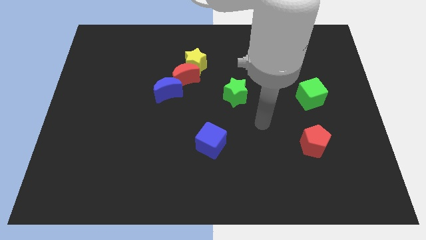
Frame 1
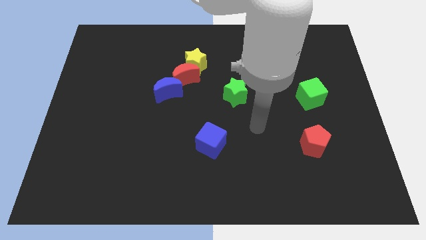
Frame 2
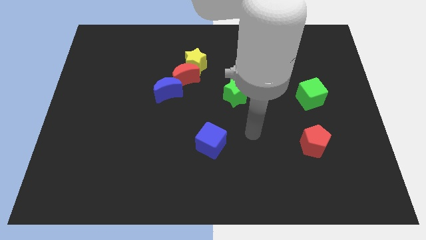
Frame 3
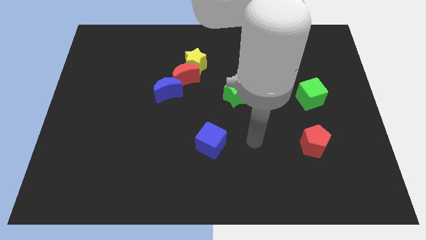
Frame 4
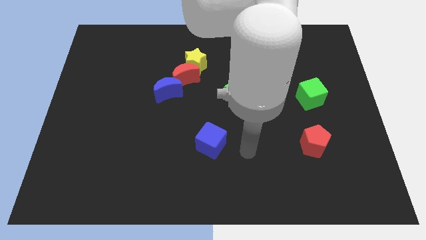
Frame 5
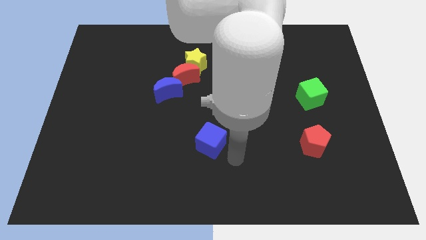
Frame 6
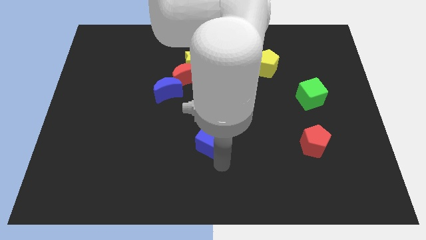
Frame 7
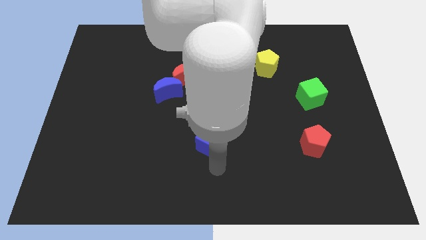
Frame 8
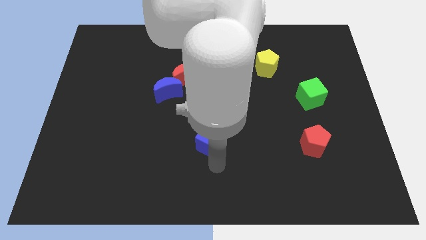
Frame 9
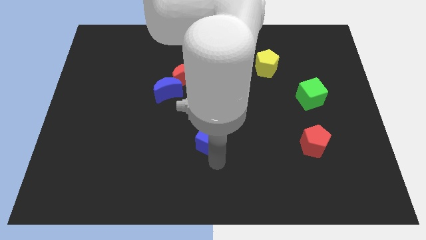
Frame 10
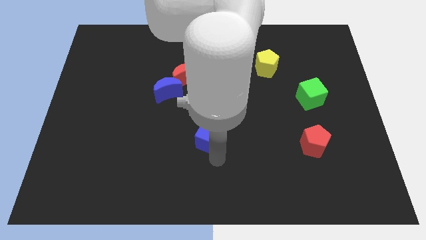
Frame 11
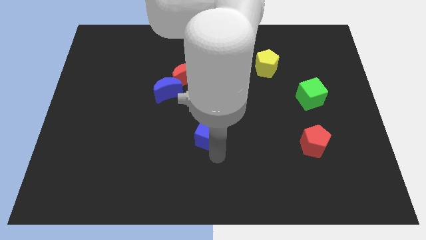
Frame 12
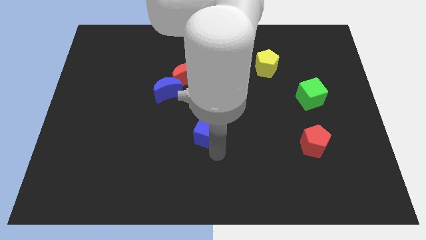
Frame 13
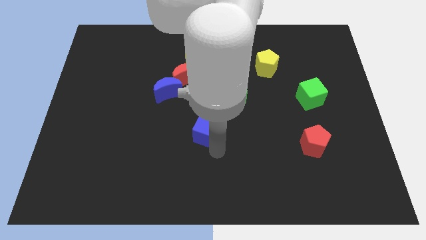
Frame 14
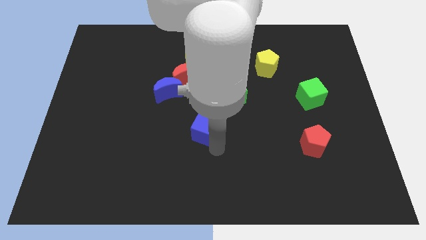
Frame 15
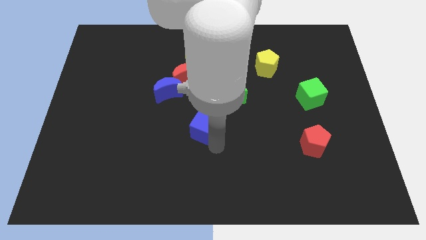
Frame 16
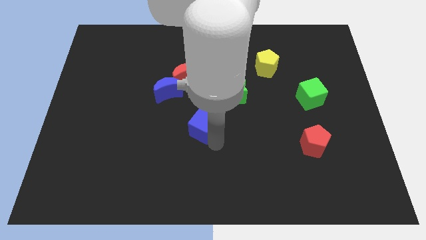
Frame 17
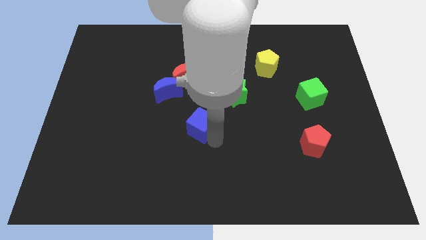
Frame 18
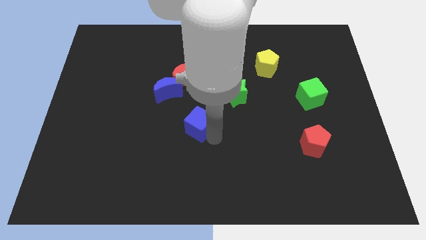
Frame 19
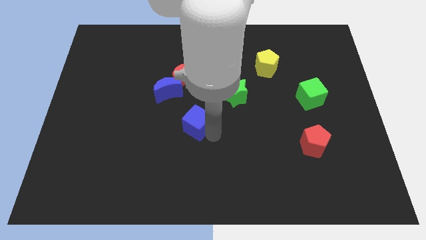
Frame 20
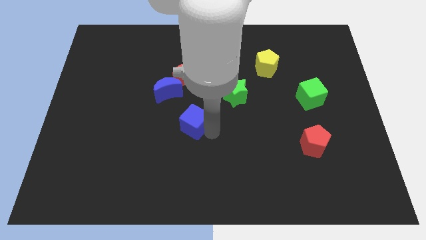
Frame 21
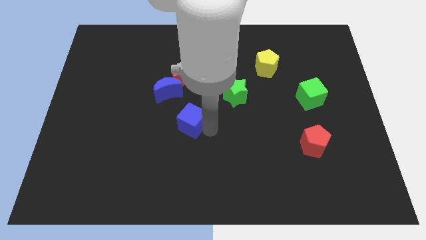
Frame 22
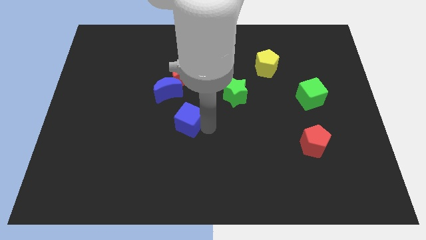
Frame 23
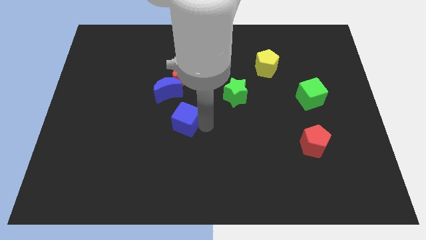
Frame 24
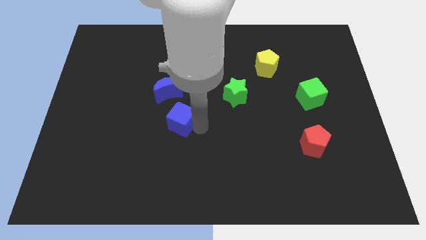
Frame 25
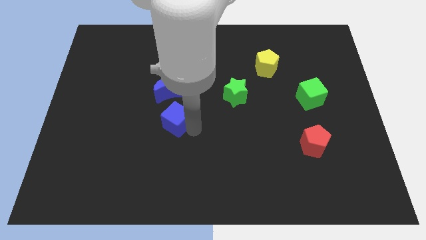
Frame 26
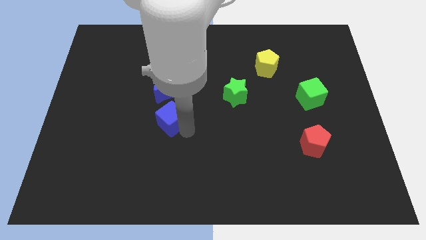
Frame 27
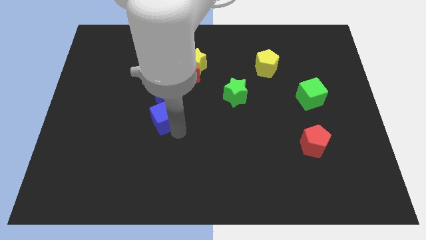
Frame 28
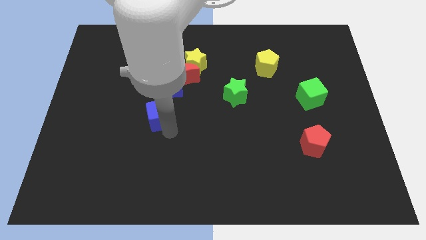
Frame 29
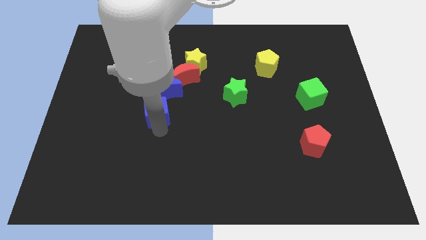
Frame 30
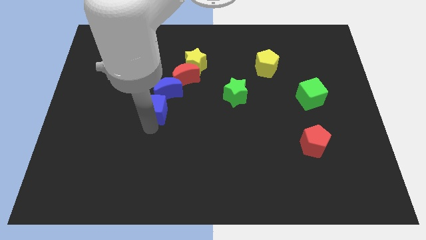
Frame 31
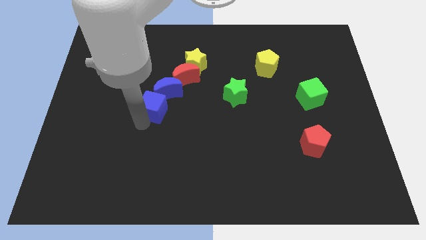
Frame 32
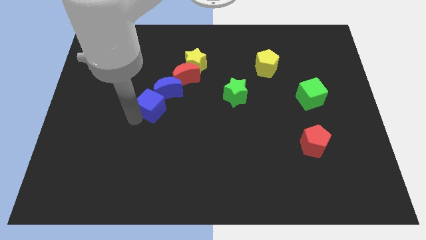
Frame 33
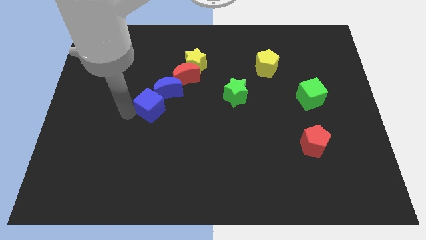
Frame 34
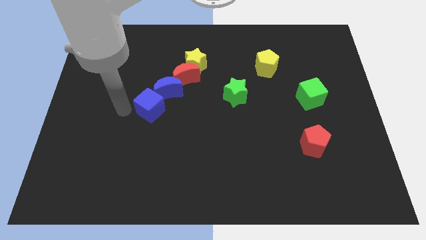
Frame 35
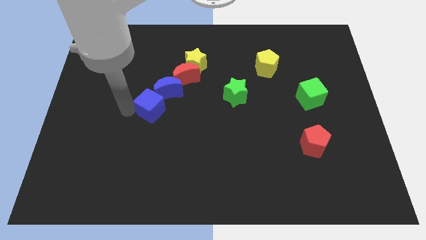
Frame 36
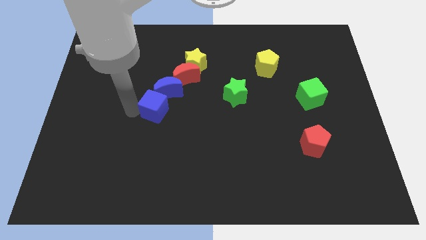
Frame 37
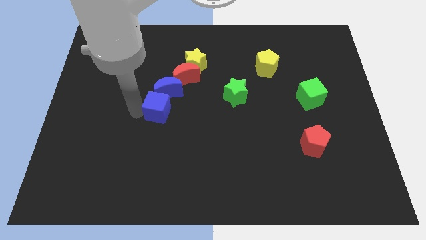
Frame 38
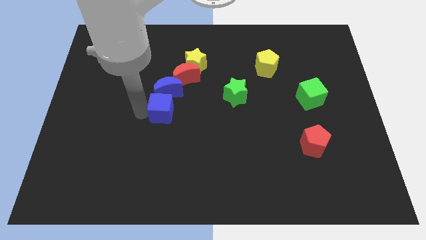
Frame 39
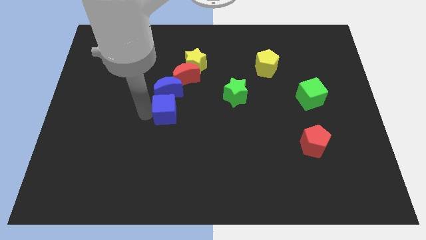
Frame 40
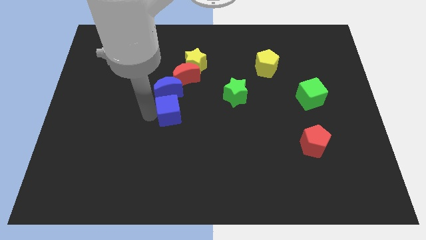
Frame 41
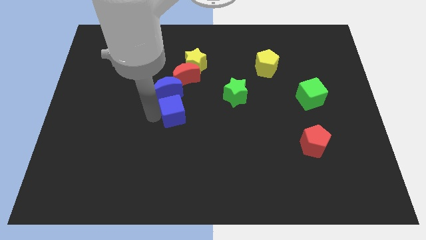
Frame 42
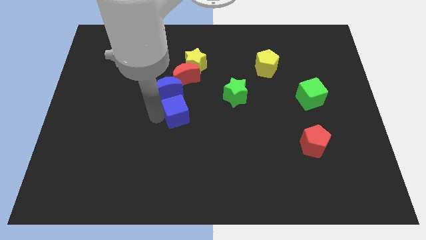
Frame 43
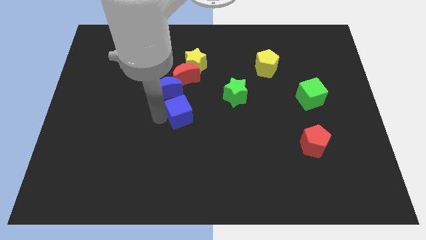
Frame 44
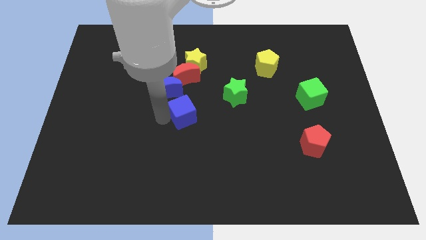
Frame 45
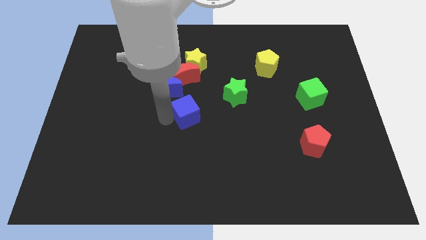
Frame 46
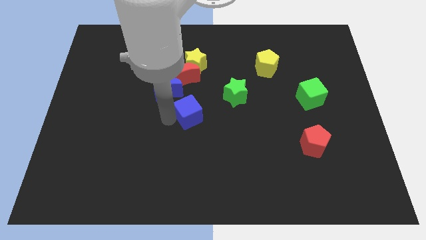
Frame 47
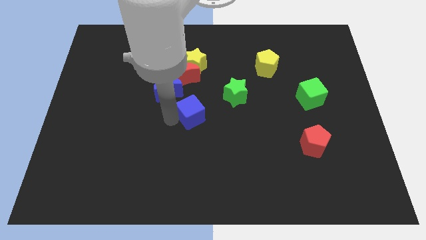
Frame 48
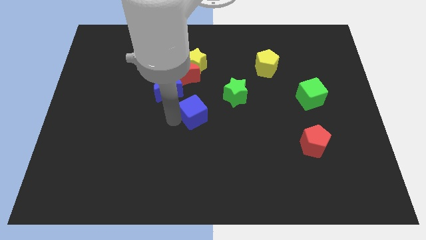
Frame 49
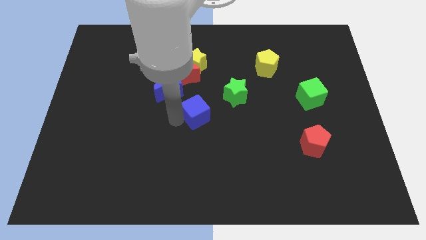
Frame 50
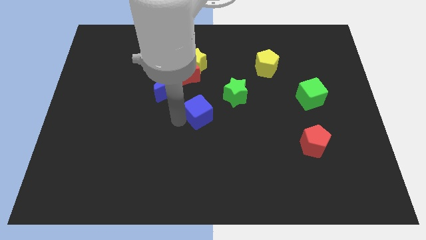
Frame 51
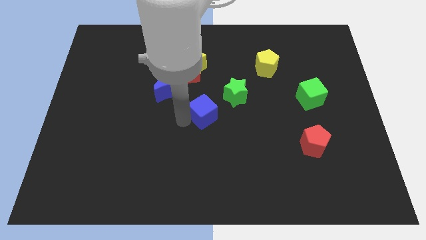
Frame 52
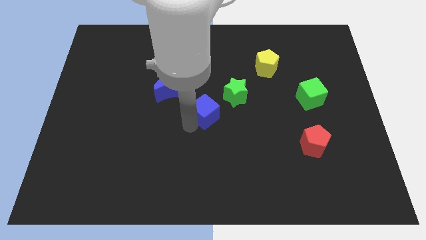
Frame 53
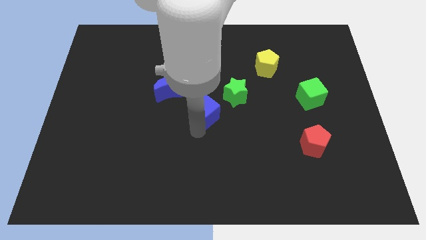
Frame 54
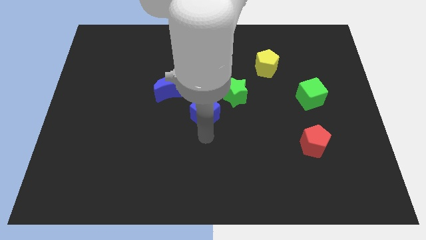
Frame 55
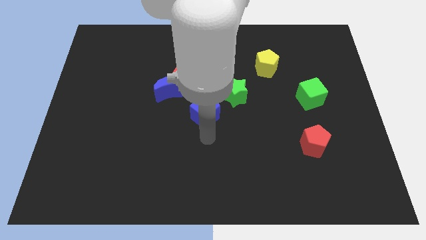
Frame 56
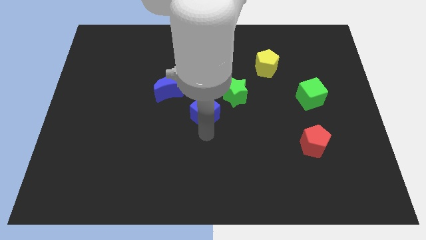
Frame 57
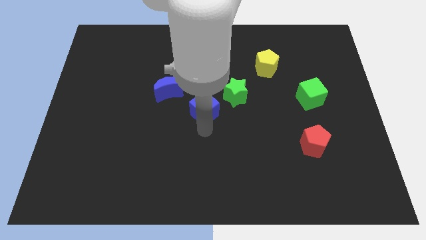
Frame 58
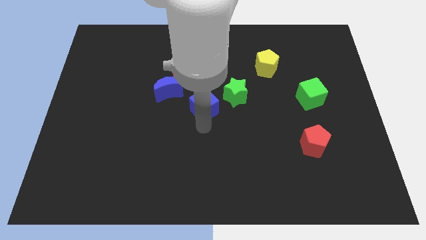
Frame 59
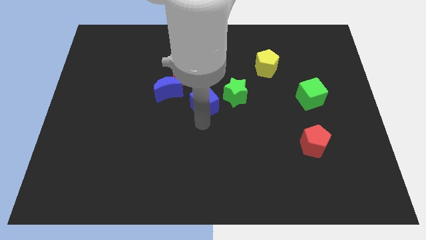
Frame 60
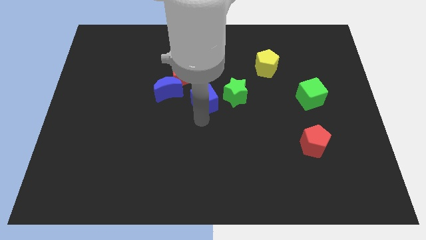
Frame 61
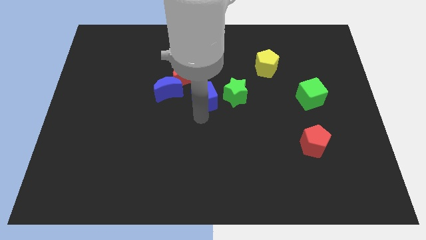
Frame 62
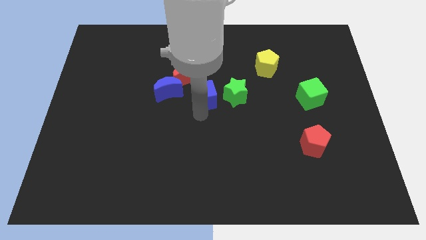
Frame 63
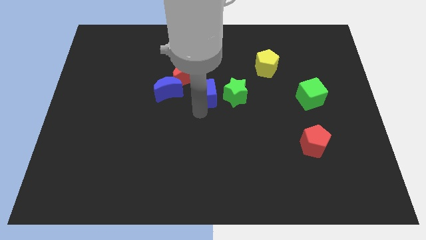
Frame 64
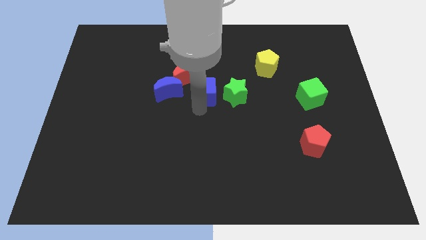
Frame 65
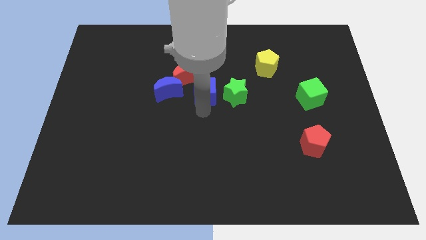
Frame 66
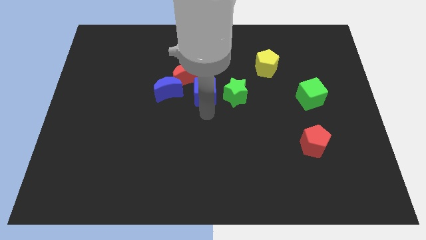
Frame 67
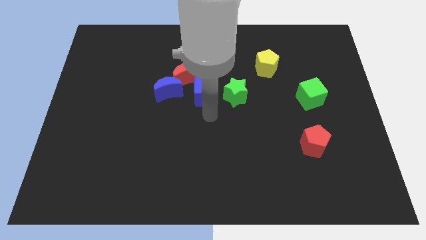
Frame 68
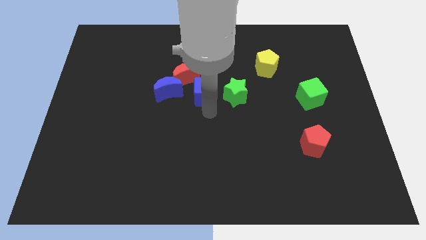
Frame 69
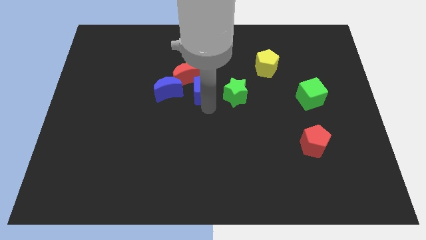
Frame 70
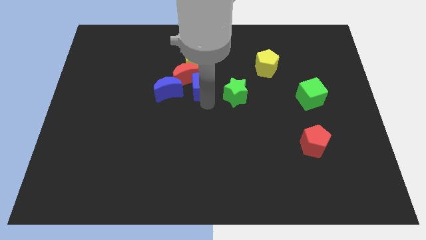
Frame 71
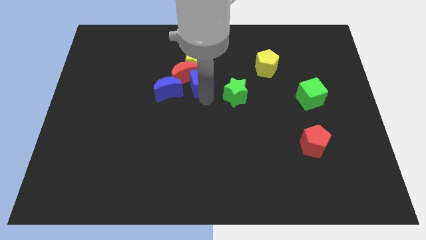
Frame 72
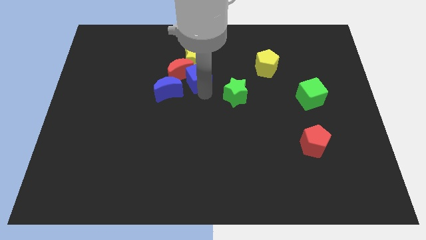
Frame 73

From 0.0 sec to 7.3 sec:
move the blue cube to the yellow star
